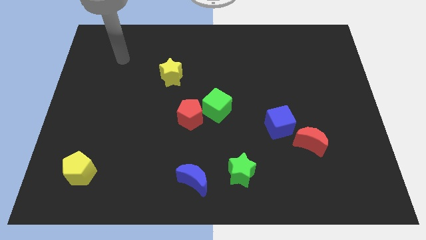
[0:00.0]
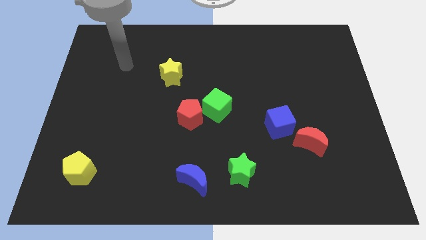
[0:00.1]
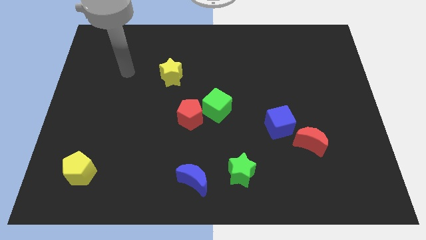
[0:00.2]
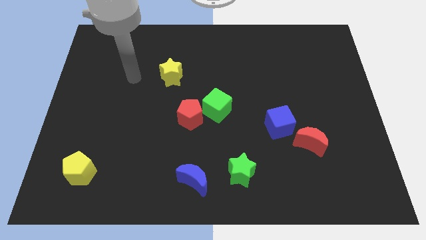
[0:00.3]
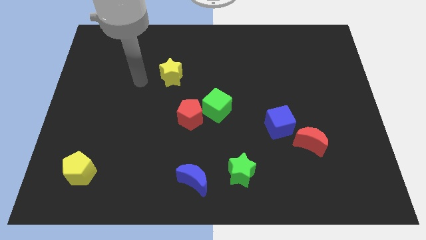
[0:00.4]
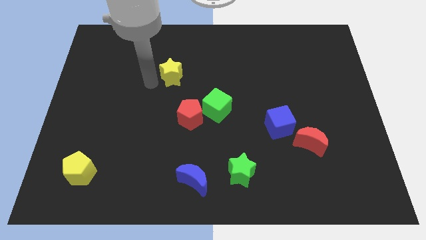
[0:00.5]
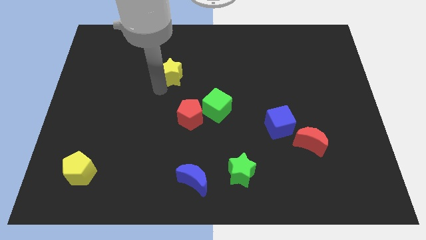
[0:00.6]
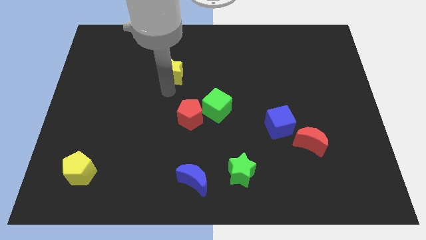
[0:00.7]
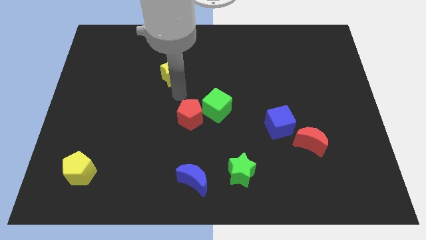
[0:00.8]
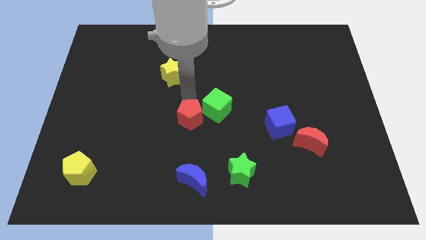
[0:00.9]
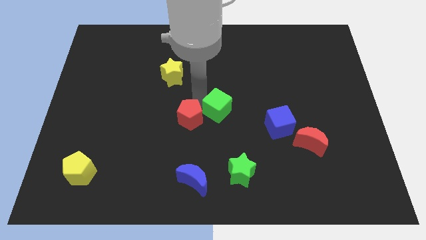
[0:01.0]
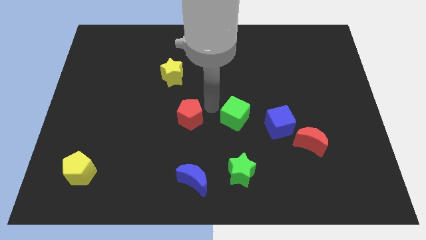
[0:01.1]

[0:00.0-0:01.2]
separate the red pentagon from the green cube

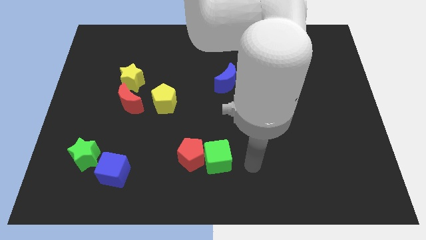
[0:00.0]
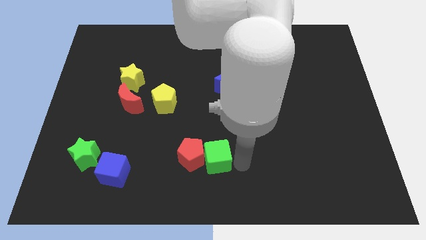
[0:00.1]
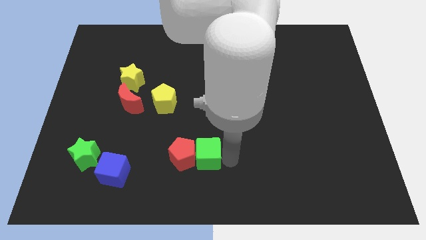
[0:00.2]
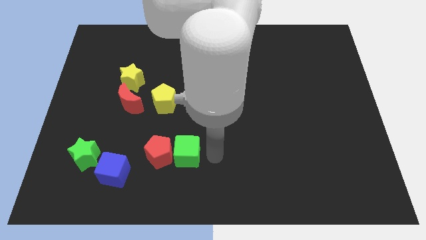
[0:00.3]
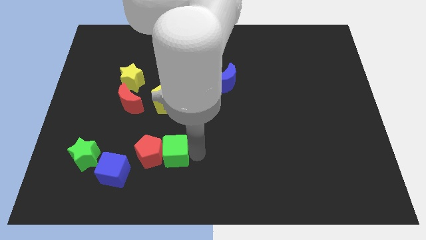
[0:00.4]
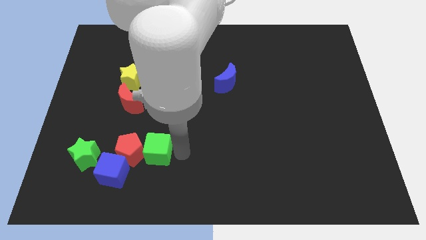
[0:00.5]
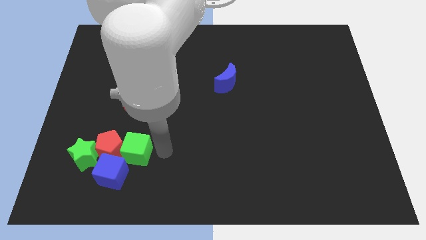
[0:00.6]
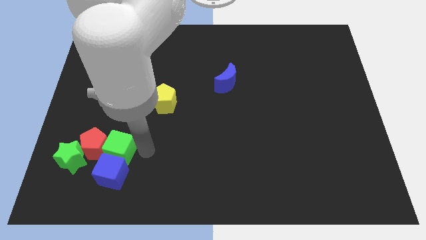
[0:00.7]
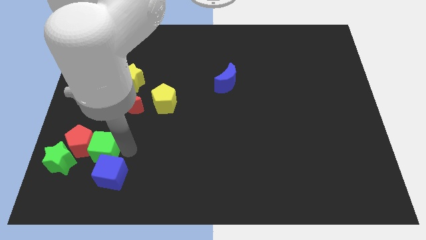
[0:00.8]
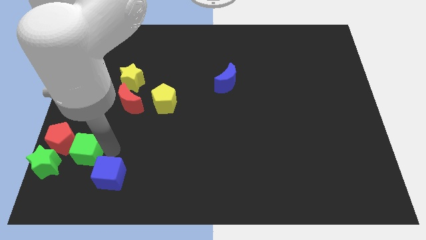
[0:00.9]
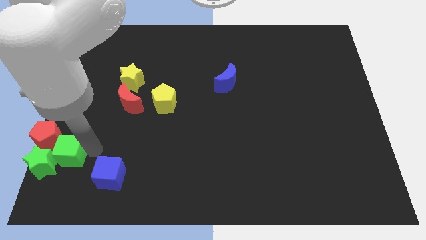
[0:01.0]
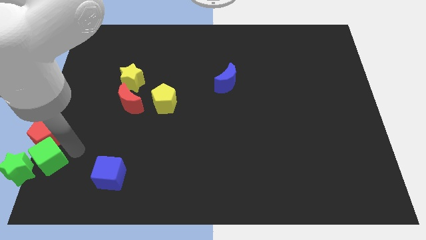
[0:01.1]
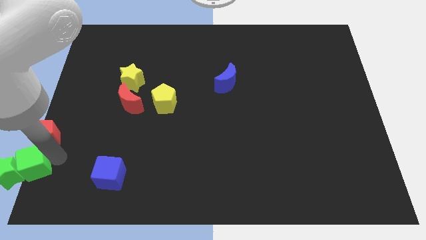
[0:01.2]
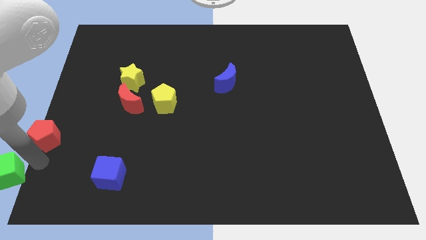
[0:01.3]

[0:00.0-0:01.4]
pull the red pentagon apart from the green cube

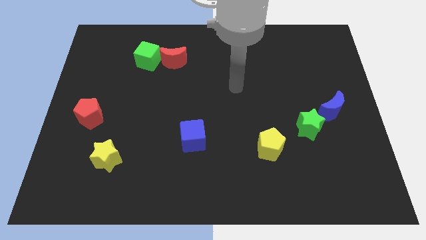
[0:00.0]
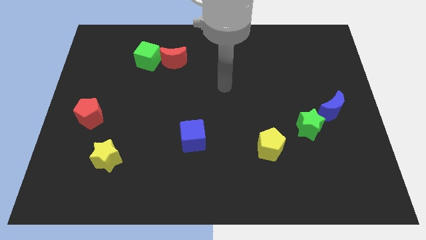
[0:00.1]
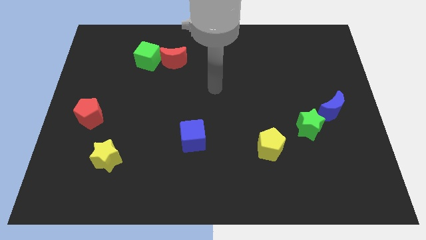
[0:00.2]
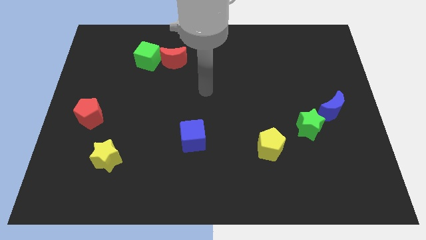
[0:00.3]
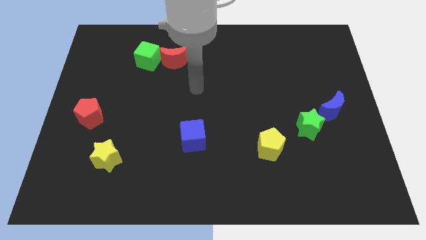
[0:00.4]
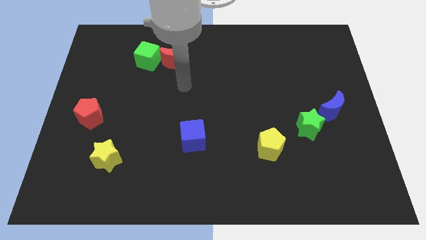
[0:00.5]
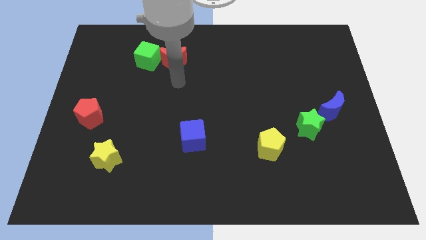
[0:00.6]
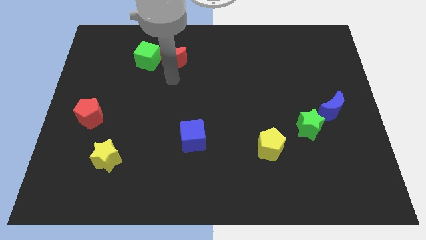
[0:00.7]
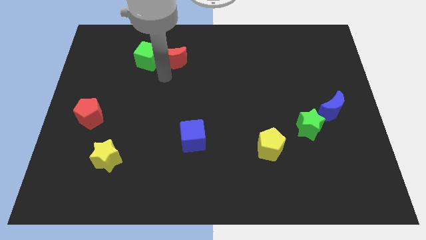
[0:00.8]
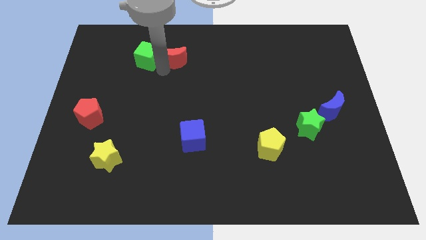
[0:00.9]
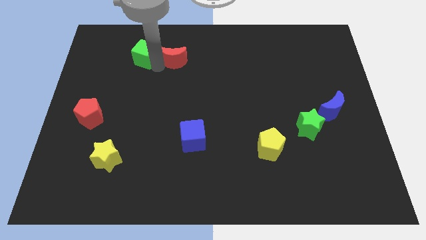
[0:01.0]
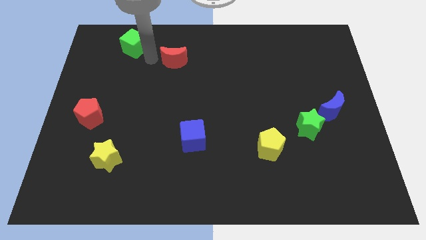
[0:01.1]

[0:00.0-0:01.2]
separate the red moon from the green cube

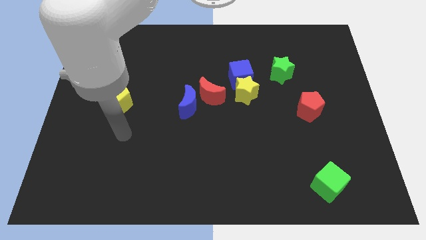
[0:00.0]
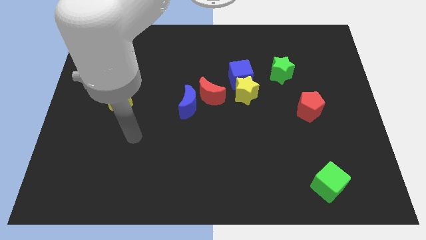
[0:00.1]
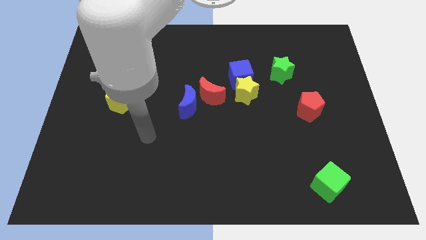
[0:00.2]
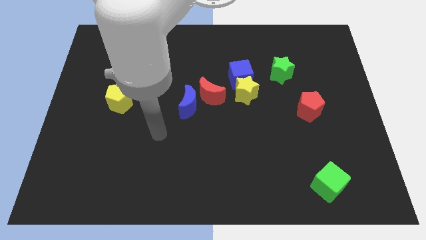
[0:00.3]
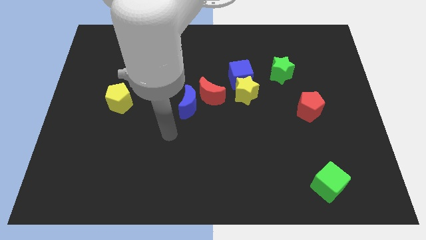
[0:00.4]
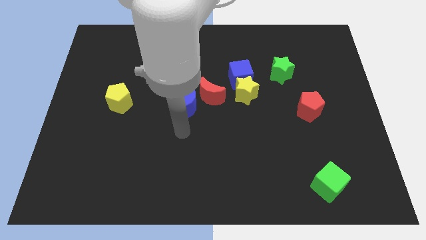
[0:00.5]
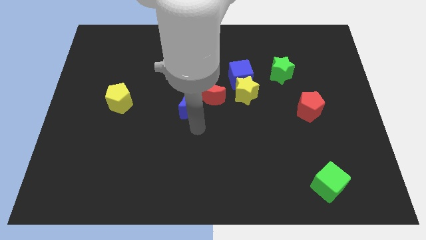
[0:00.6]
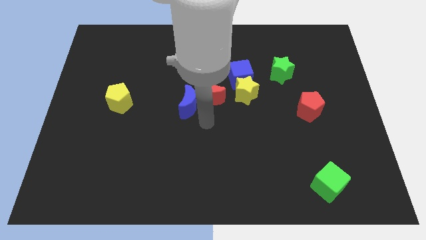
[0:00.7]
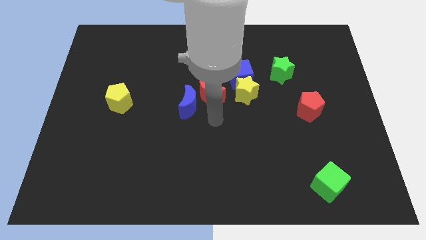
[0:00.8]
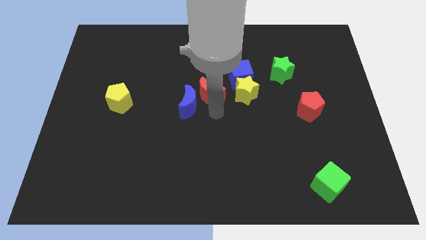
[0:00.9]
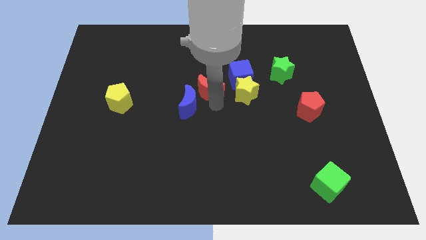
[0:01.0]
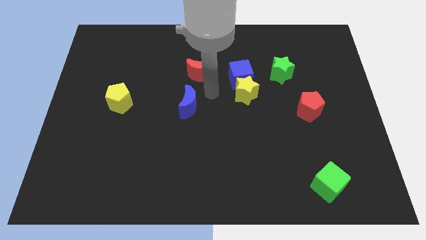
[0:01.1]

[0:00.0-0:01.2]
pull the blue moon apart from the red moon

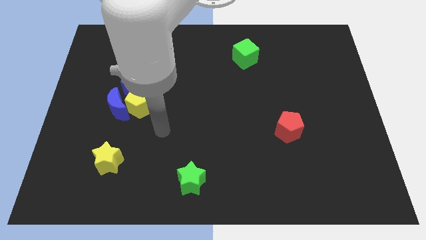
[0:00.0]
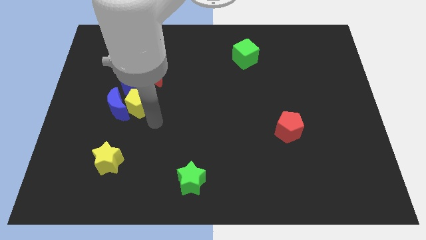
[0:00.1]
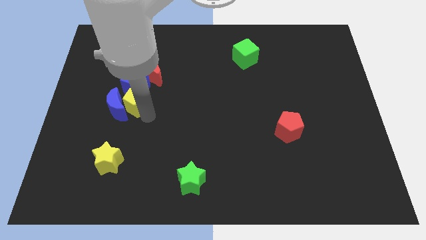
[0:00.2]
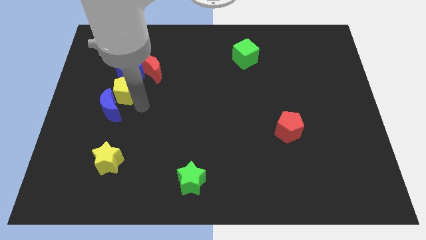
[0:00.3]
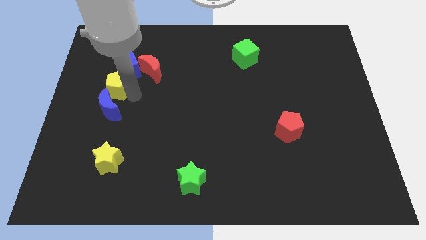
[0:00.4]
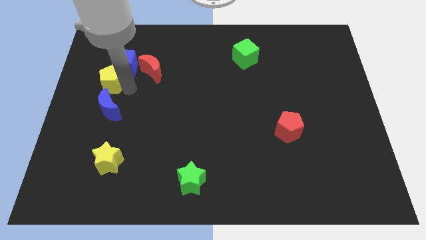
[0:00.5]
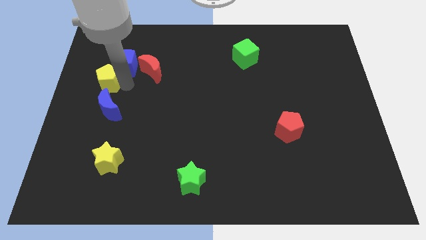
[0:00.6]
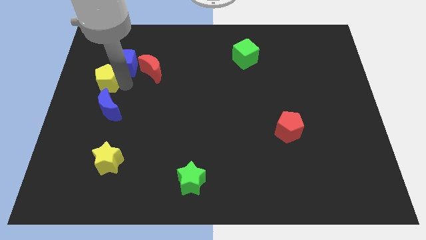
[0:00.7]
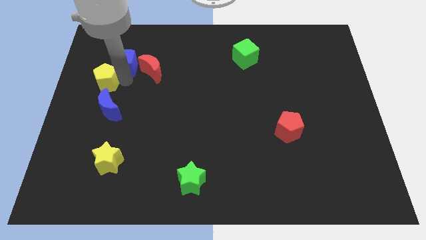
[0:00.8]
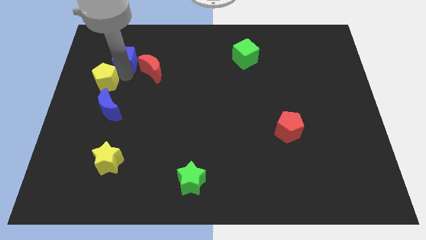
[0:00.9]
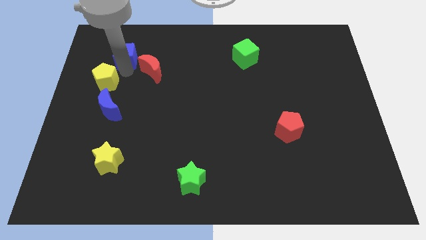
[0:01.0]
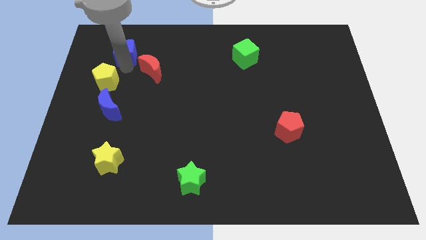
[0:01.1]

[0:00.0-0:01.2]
pull the blue cube apart from the red moon, yellow pentagon, and blue moon

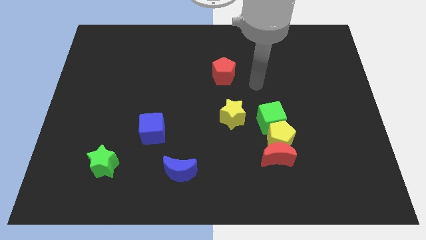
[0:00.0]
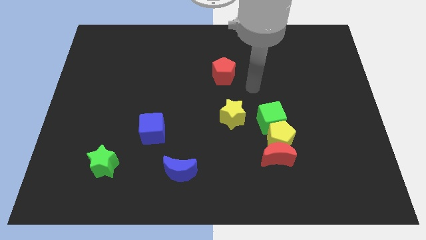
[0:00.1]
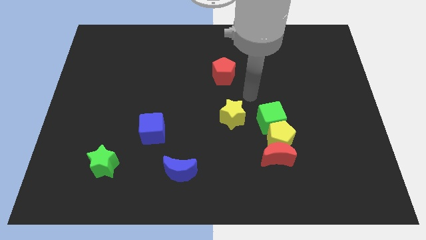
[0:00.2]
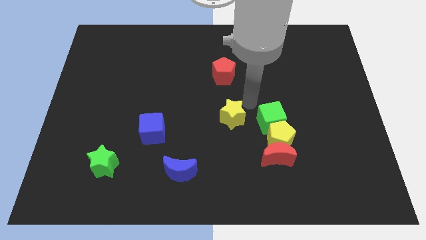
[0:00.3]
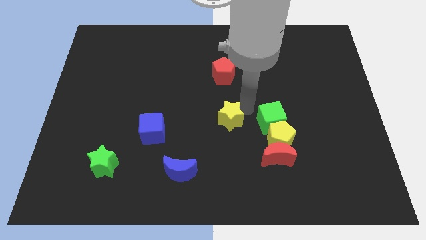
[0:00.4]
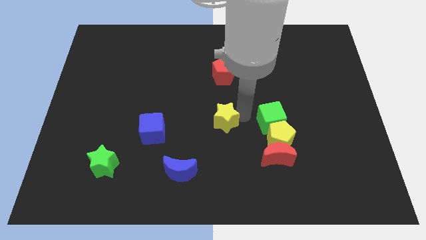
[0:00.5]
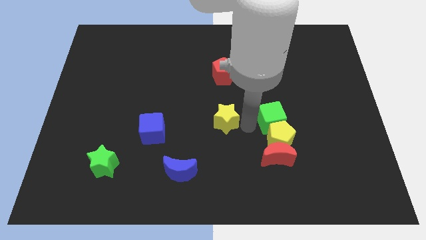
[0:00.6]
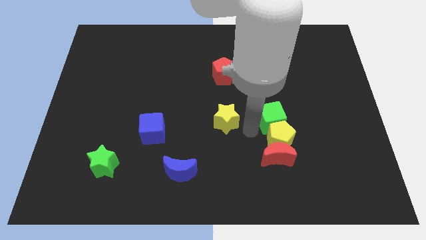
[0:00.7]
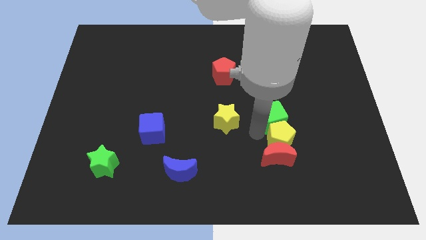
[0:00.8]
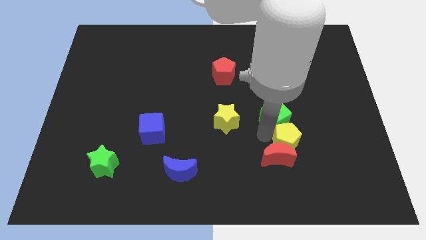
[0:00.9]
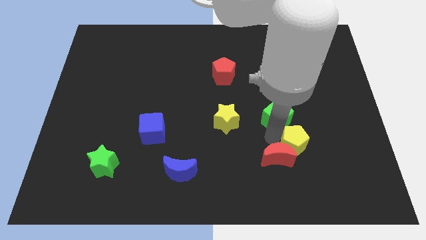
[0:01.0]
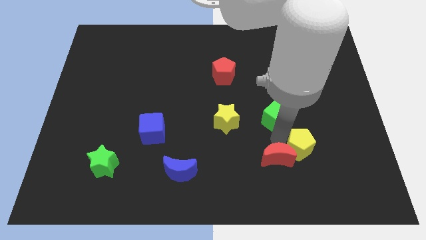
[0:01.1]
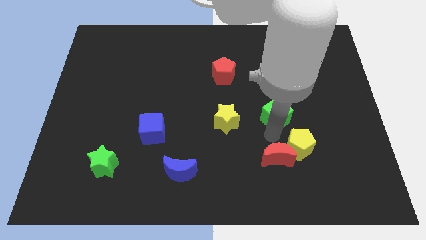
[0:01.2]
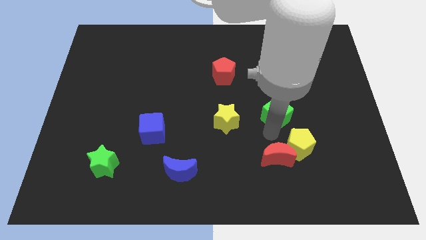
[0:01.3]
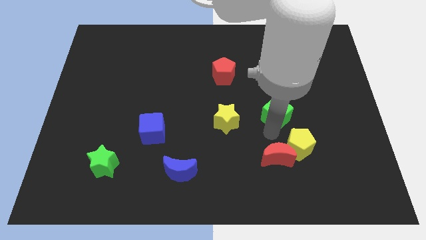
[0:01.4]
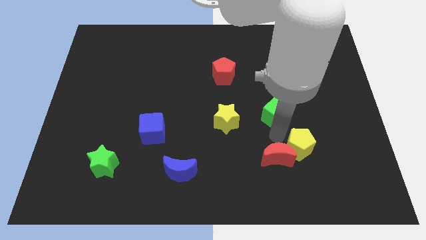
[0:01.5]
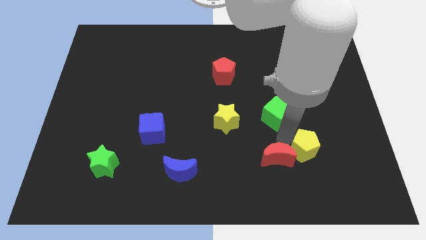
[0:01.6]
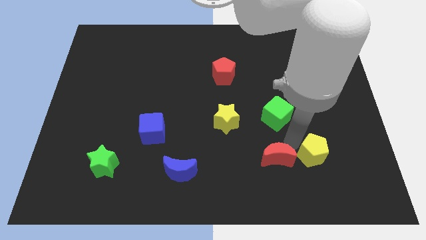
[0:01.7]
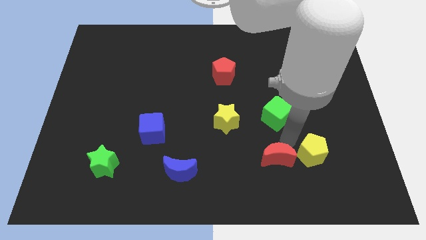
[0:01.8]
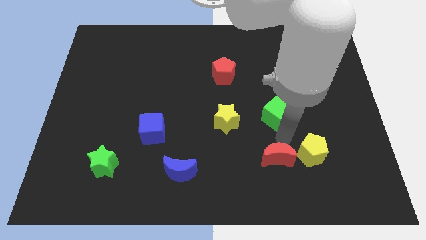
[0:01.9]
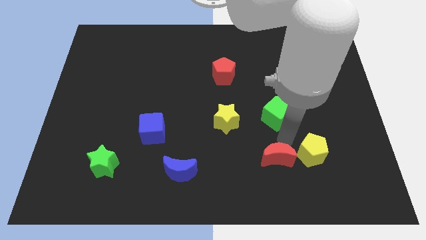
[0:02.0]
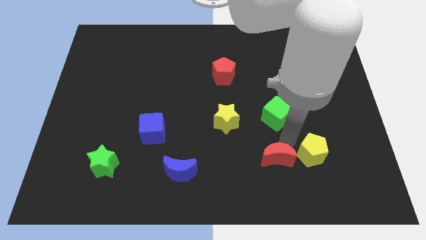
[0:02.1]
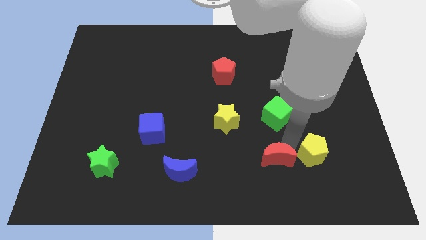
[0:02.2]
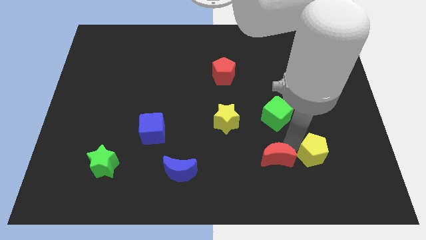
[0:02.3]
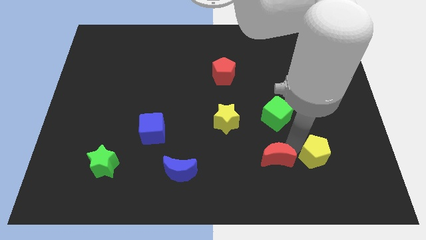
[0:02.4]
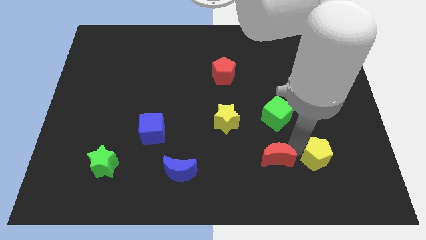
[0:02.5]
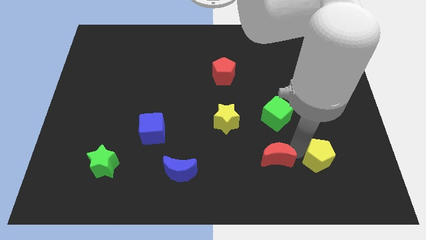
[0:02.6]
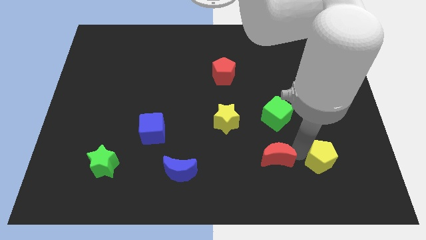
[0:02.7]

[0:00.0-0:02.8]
separate the yellow pentagon from the red moon and green cube

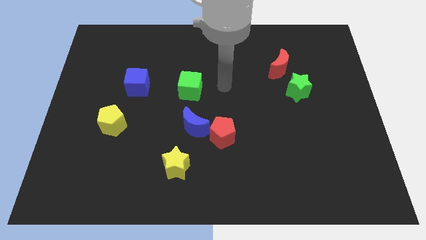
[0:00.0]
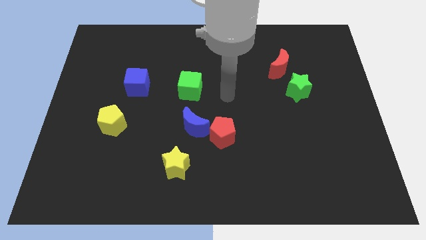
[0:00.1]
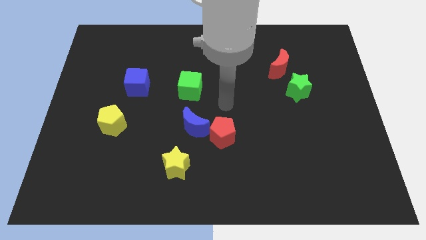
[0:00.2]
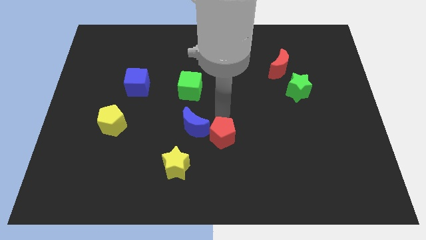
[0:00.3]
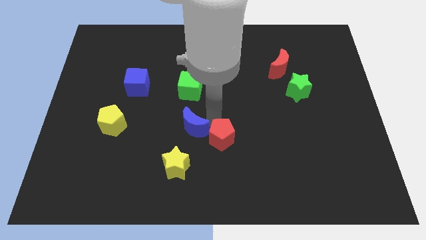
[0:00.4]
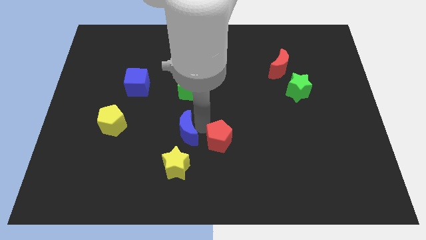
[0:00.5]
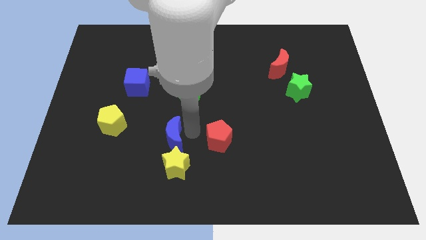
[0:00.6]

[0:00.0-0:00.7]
move the red pentagon away from the blue moon
